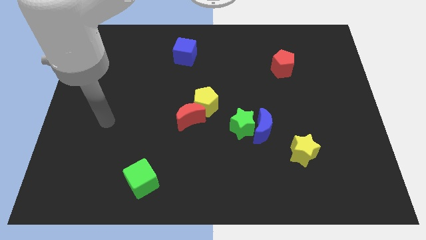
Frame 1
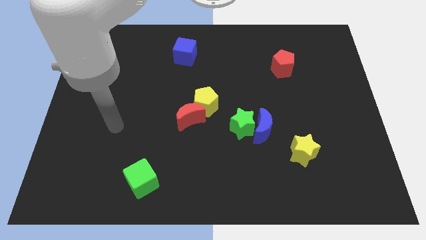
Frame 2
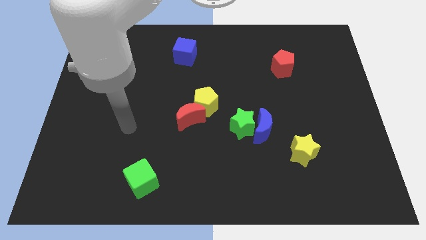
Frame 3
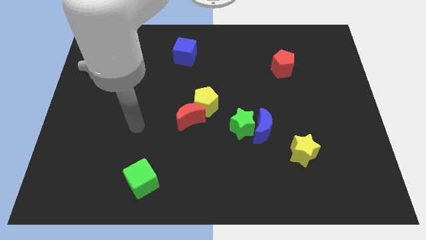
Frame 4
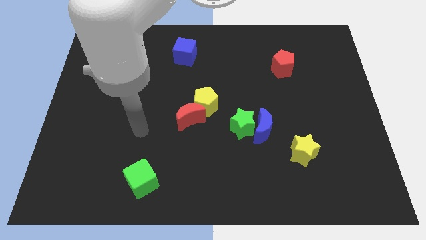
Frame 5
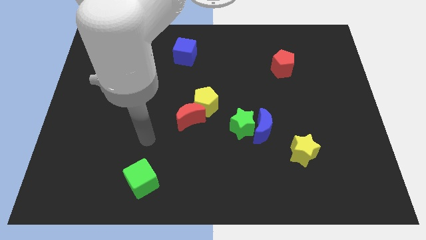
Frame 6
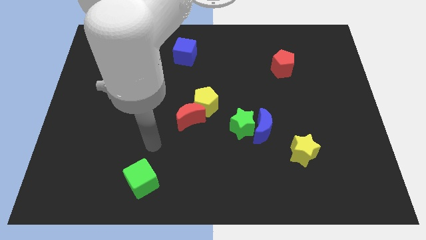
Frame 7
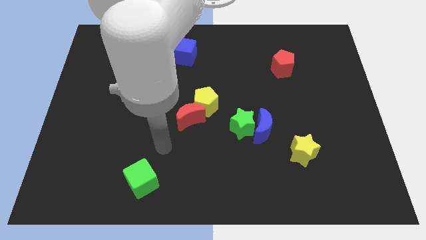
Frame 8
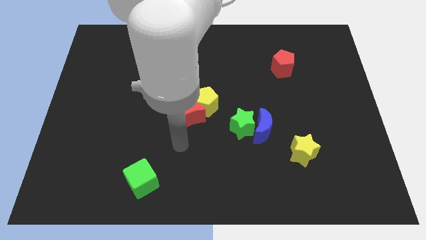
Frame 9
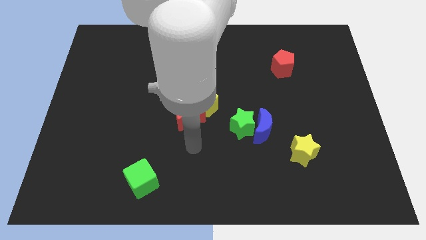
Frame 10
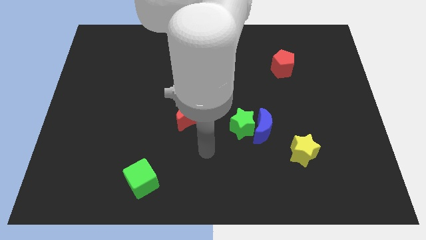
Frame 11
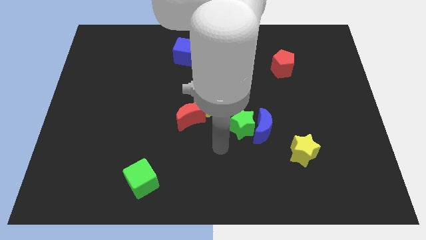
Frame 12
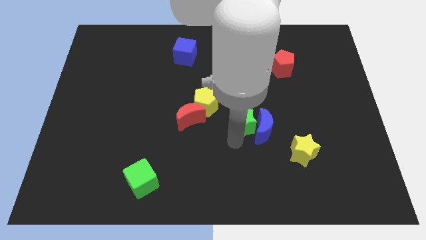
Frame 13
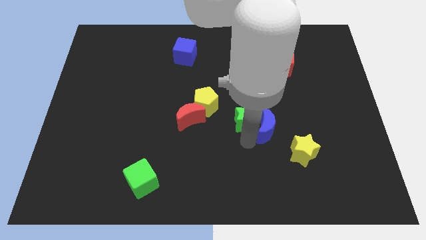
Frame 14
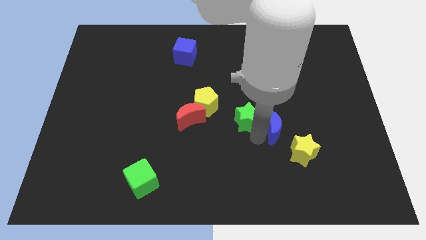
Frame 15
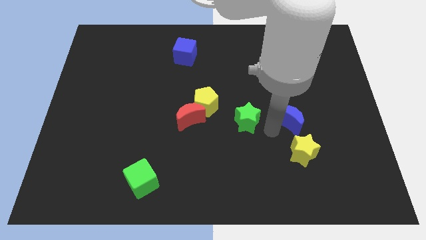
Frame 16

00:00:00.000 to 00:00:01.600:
separate the green star from the blue moon

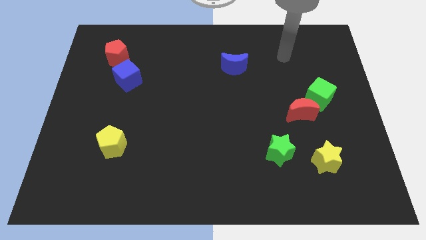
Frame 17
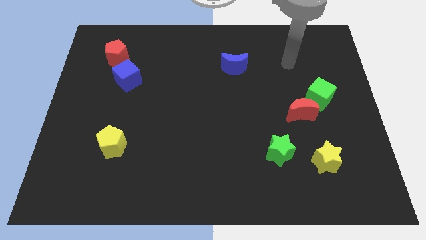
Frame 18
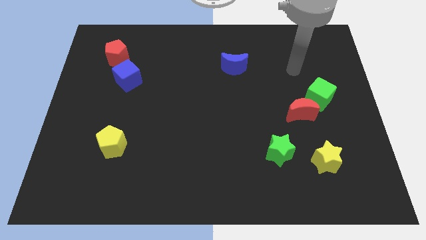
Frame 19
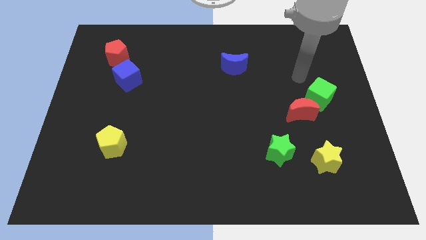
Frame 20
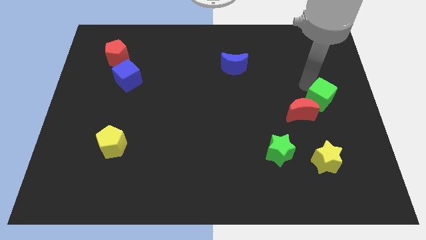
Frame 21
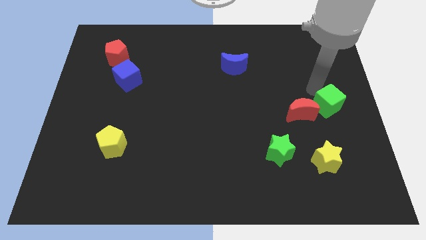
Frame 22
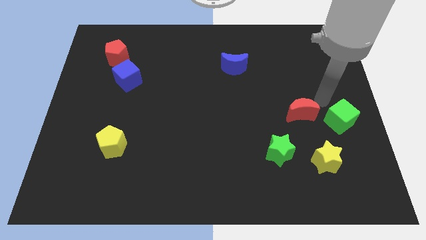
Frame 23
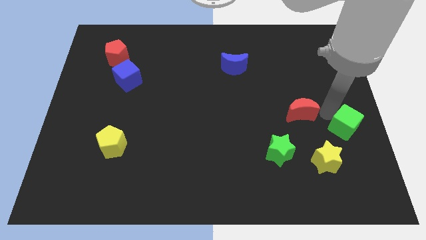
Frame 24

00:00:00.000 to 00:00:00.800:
separate the red moon from the green cube

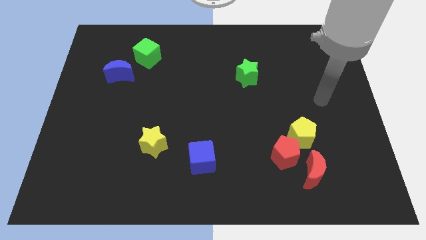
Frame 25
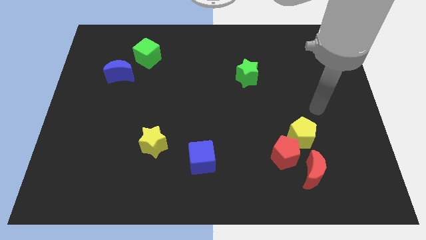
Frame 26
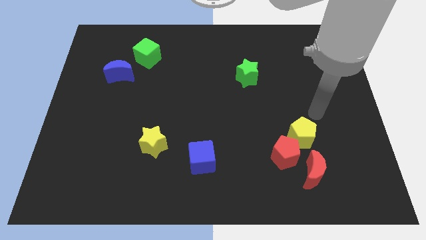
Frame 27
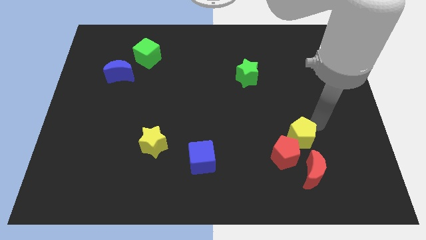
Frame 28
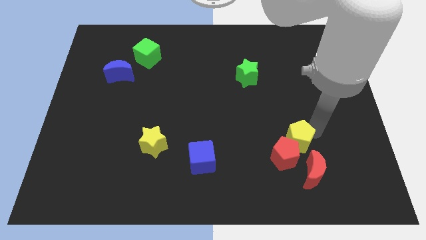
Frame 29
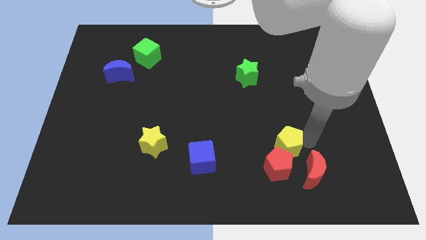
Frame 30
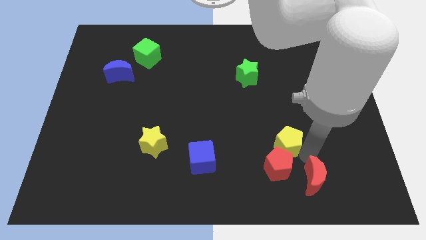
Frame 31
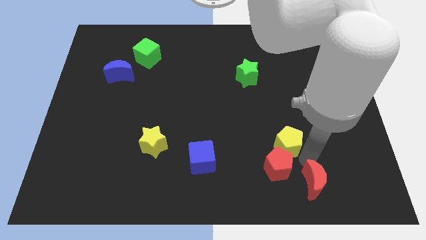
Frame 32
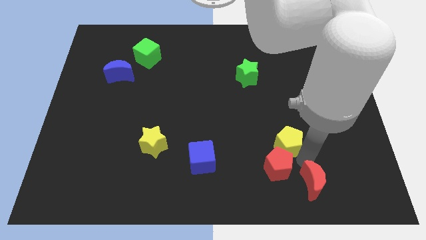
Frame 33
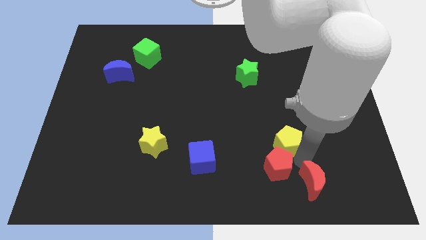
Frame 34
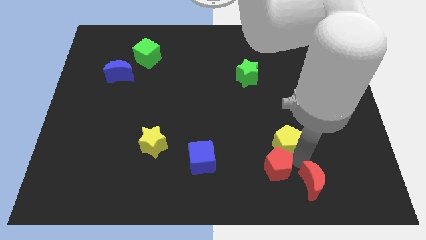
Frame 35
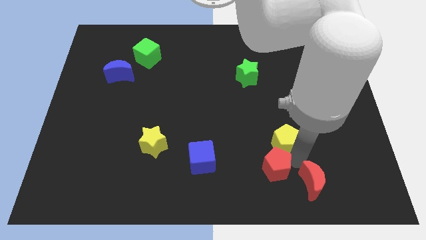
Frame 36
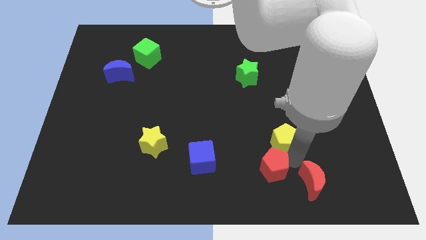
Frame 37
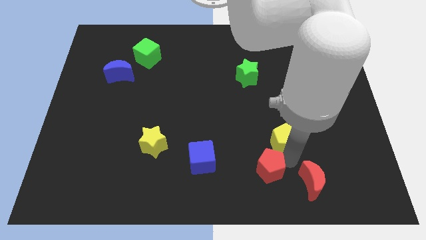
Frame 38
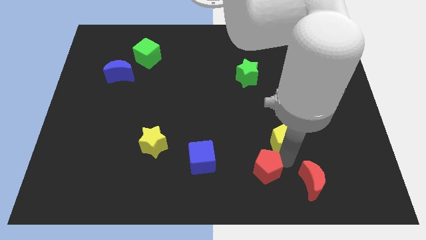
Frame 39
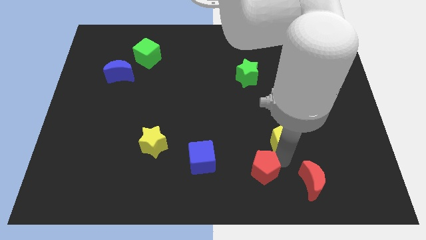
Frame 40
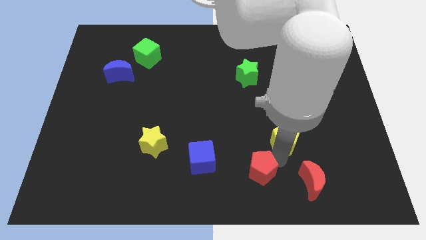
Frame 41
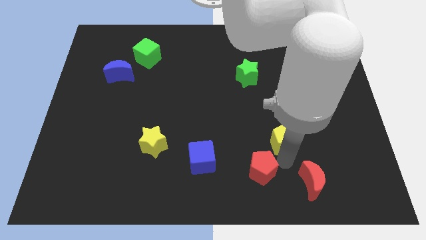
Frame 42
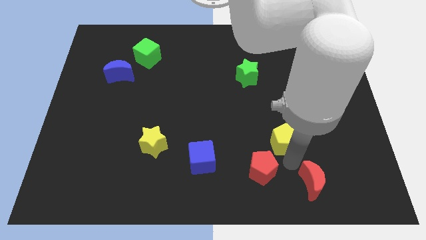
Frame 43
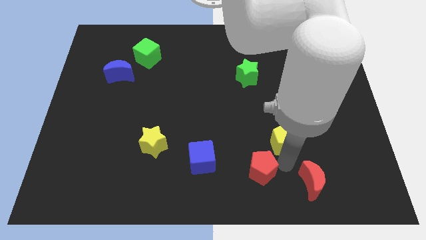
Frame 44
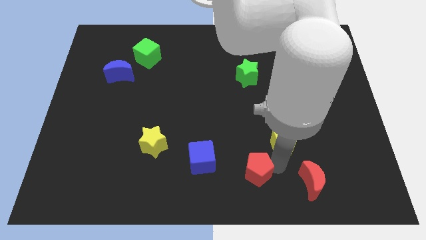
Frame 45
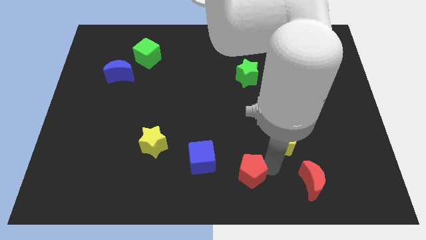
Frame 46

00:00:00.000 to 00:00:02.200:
pull the red pentagon apart from the yellow pentagon and red moon

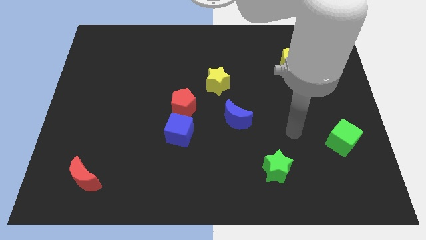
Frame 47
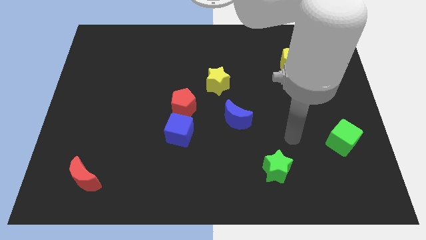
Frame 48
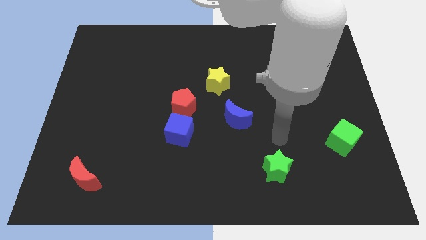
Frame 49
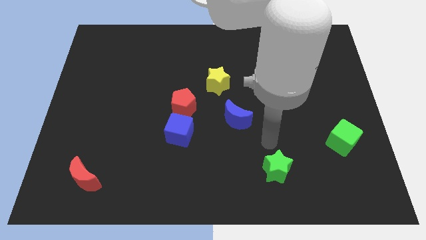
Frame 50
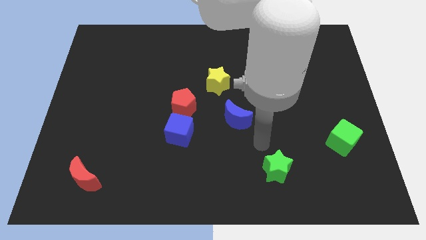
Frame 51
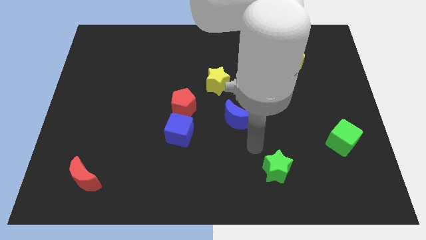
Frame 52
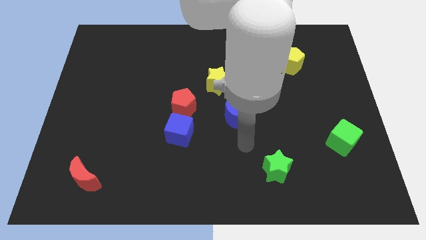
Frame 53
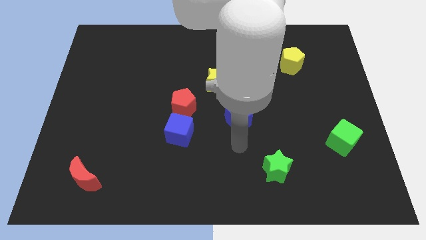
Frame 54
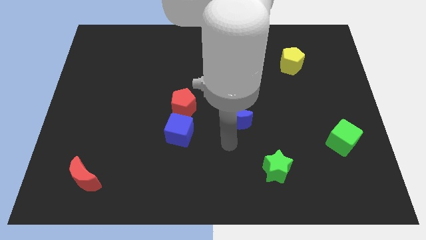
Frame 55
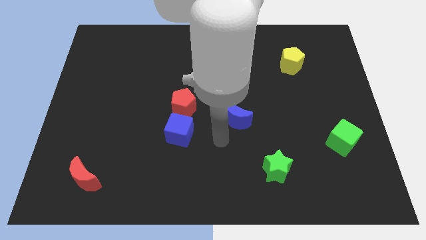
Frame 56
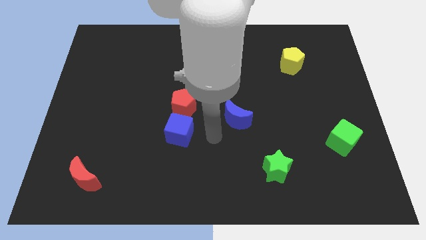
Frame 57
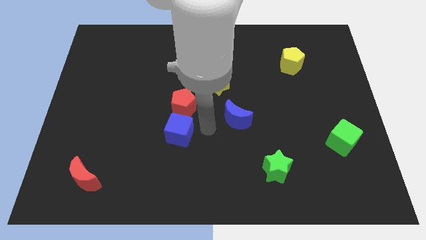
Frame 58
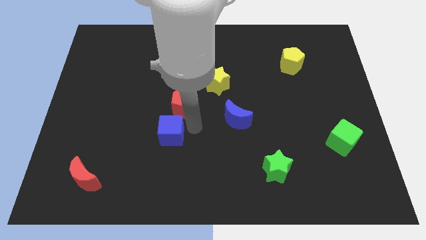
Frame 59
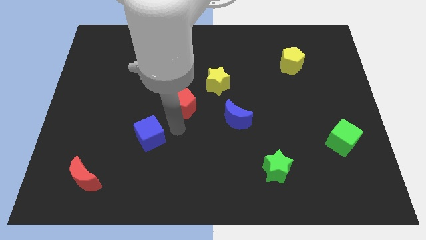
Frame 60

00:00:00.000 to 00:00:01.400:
separate the red pentagon from the blue cube

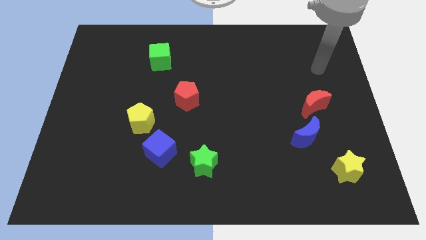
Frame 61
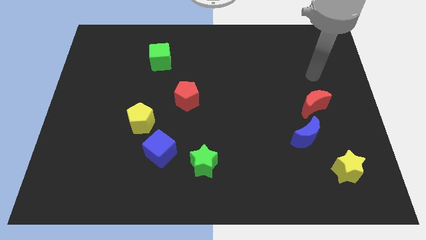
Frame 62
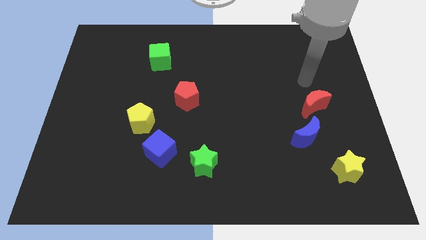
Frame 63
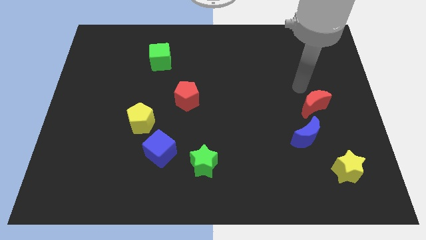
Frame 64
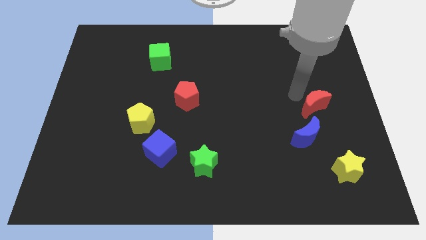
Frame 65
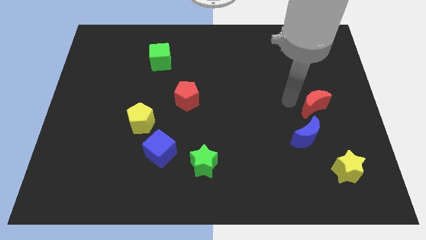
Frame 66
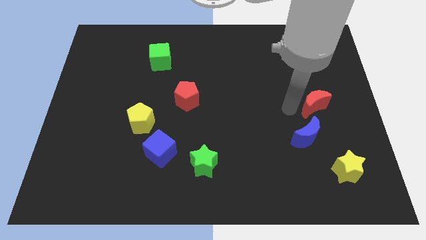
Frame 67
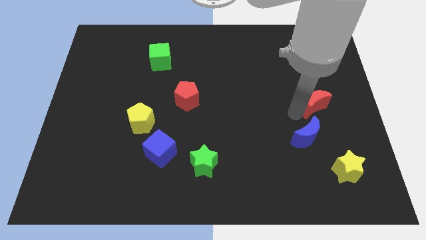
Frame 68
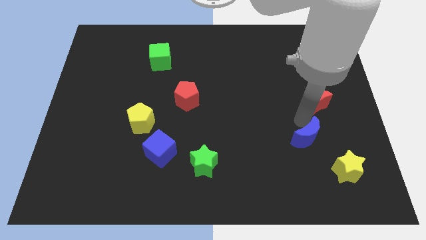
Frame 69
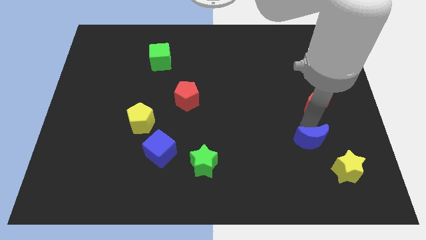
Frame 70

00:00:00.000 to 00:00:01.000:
pull the red moon apart from the blue moon

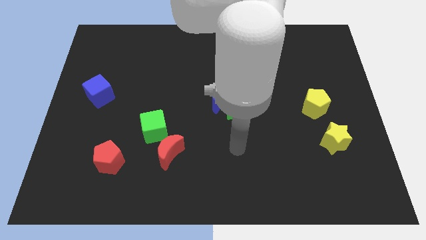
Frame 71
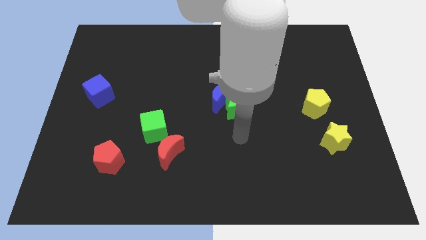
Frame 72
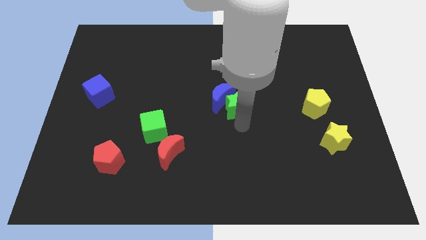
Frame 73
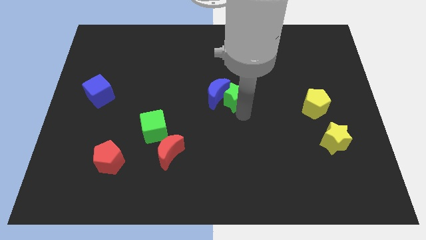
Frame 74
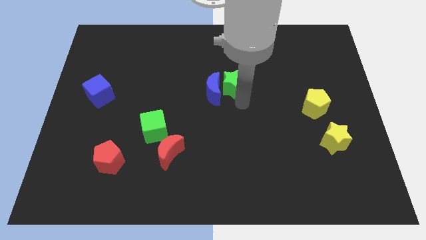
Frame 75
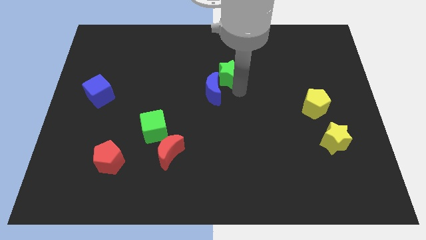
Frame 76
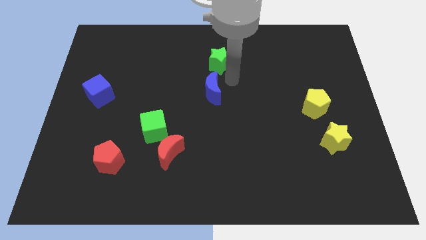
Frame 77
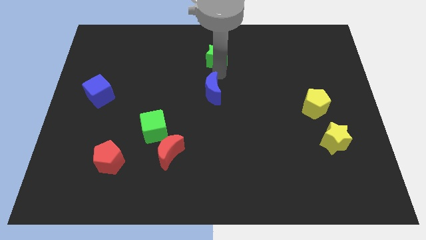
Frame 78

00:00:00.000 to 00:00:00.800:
separate the blue moon from the green star

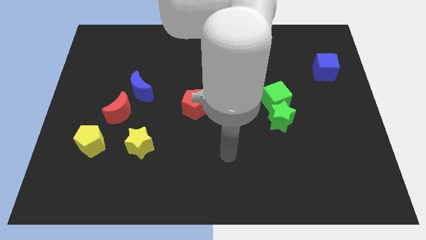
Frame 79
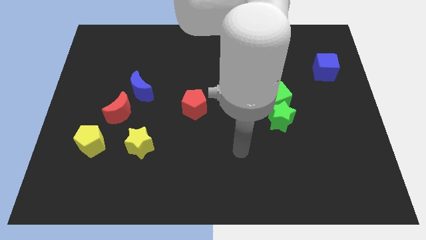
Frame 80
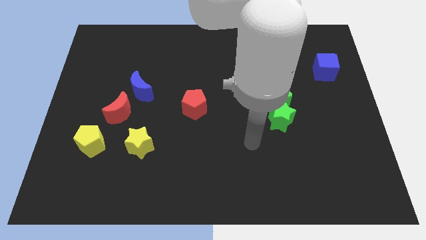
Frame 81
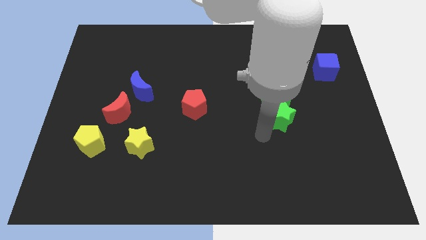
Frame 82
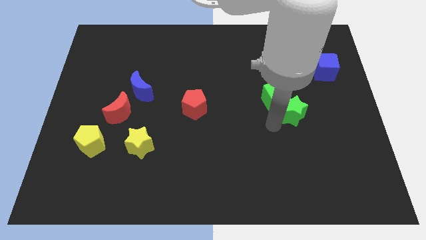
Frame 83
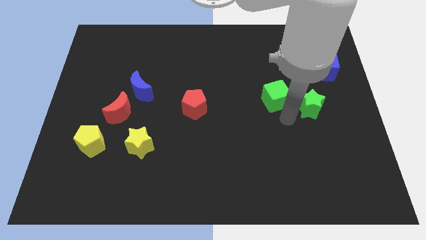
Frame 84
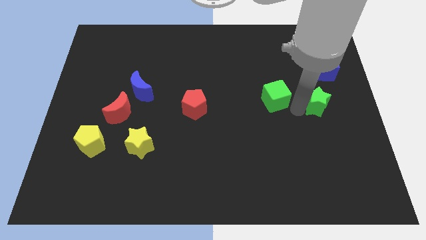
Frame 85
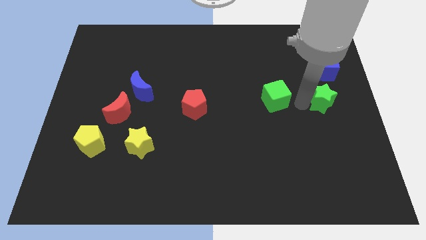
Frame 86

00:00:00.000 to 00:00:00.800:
separate the green cube from the green star

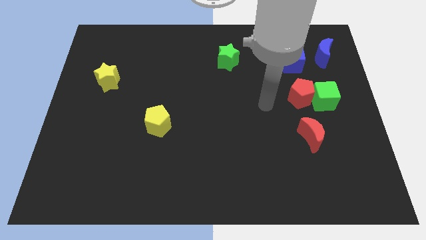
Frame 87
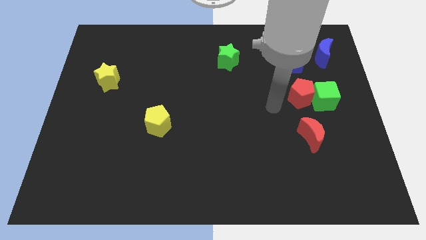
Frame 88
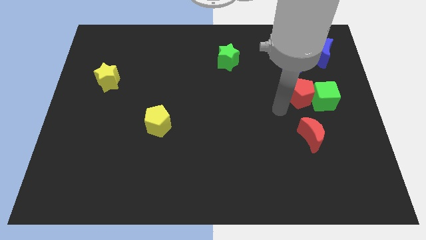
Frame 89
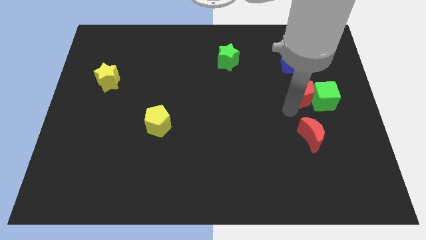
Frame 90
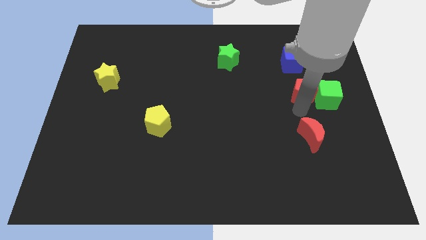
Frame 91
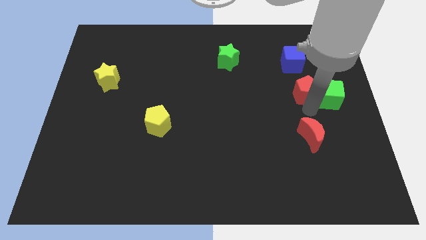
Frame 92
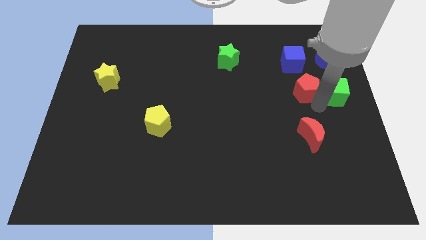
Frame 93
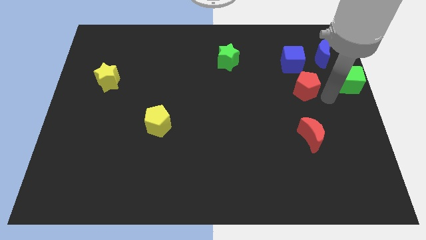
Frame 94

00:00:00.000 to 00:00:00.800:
move the red pentagon away from the green cube
